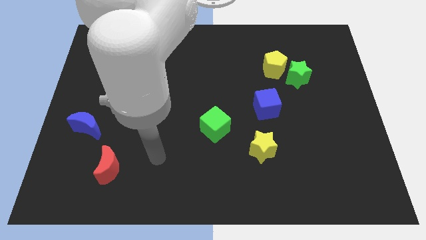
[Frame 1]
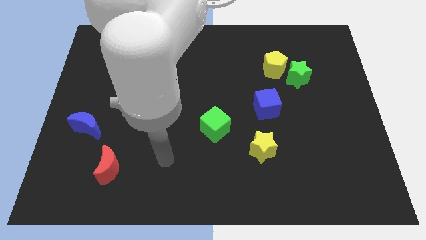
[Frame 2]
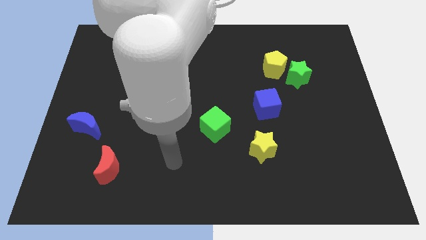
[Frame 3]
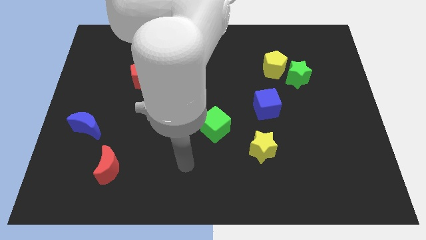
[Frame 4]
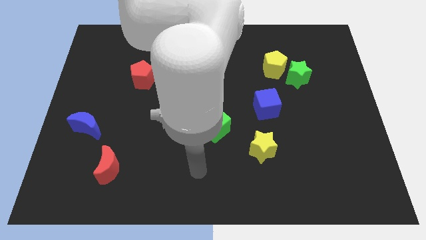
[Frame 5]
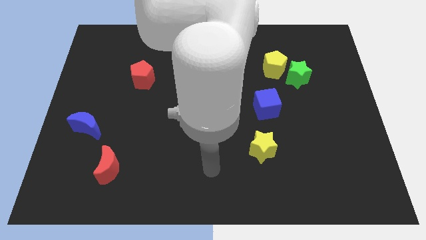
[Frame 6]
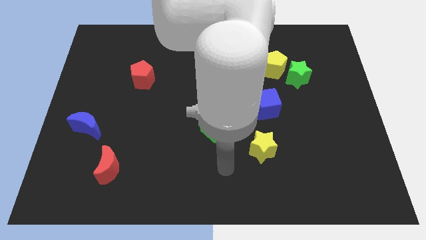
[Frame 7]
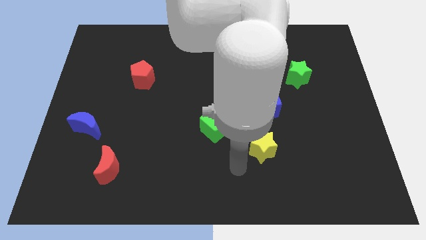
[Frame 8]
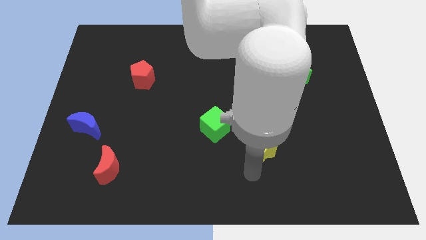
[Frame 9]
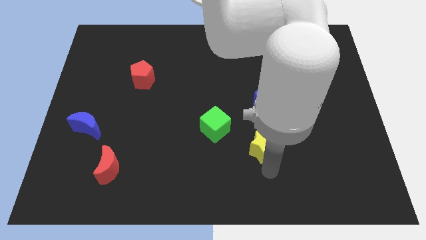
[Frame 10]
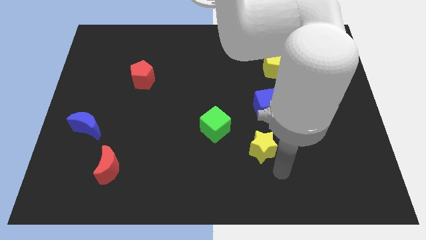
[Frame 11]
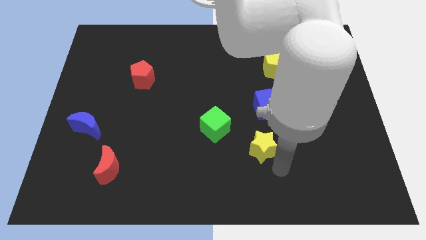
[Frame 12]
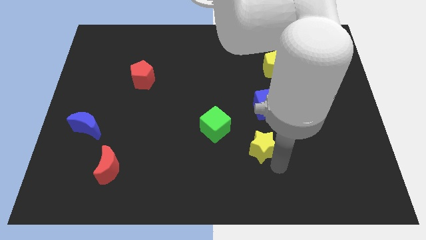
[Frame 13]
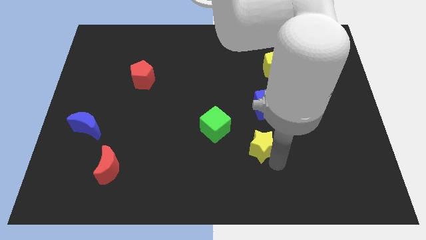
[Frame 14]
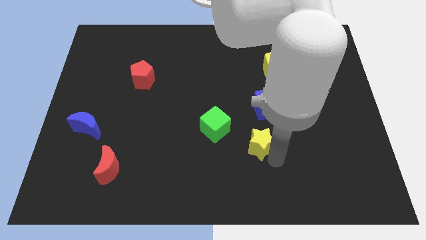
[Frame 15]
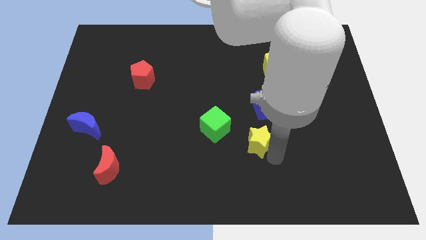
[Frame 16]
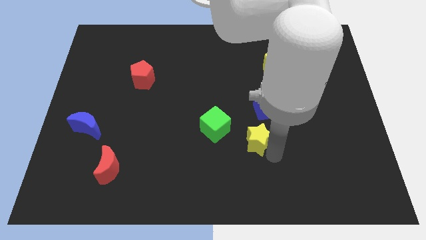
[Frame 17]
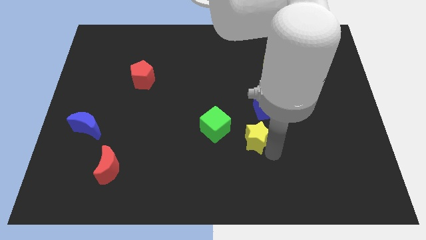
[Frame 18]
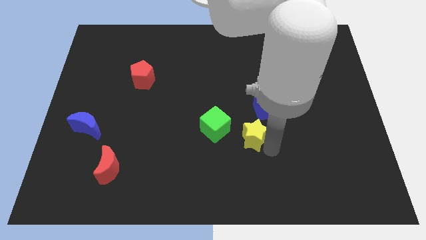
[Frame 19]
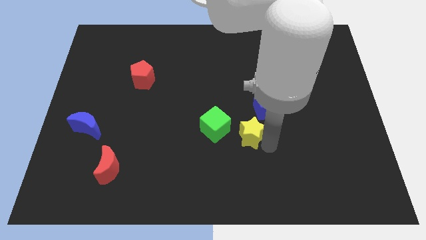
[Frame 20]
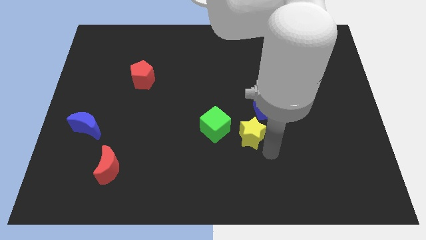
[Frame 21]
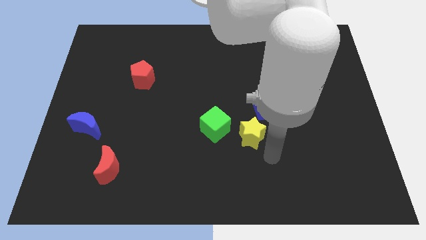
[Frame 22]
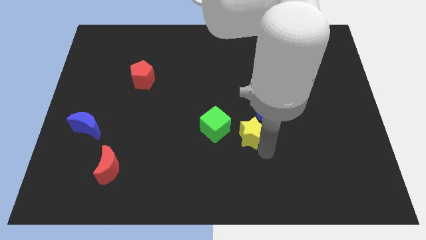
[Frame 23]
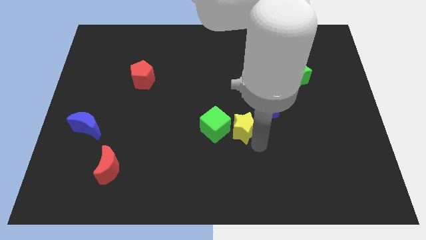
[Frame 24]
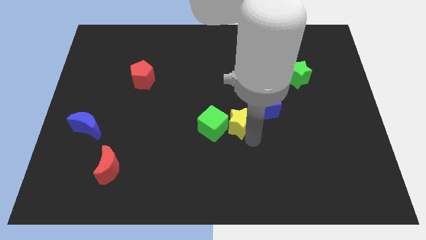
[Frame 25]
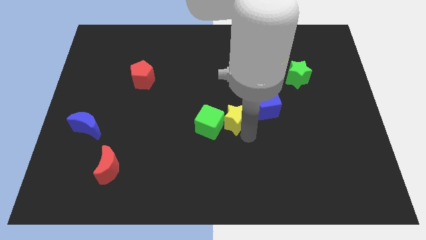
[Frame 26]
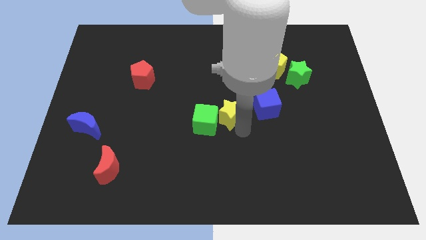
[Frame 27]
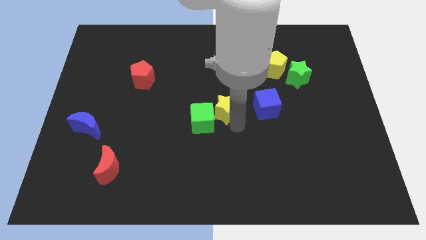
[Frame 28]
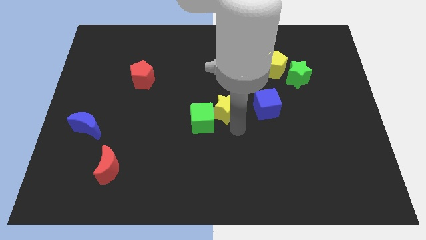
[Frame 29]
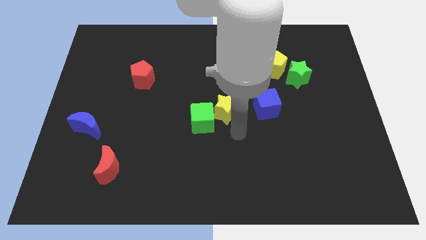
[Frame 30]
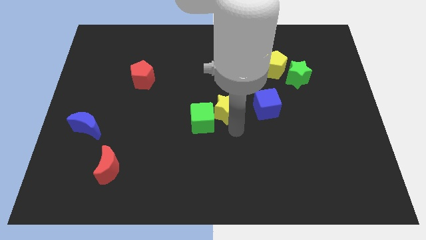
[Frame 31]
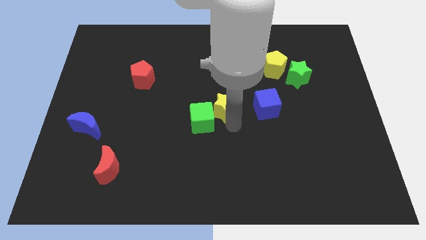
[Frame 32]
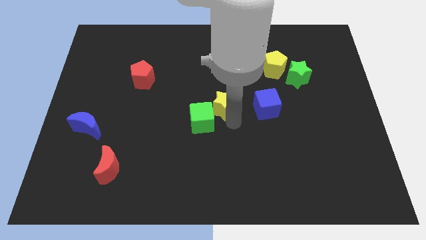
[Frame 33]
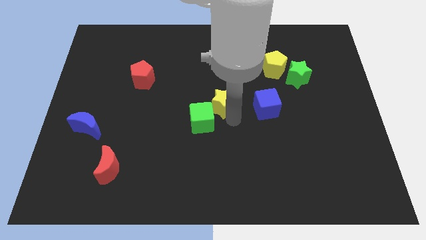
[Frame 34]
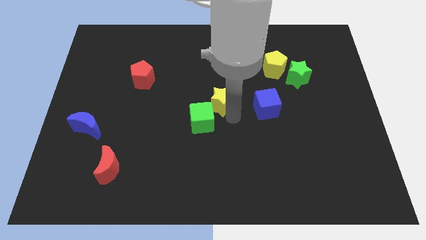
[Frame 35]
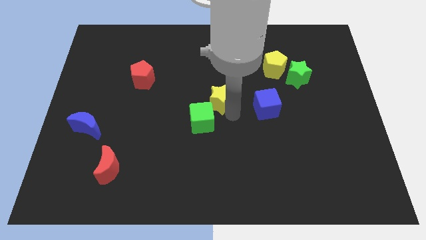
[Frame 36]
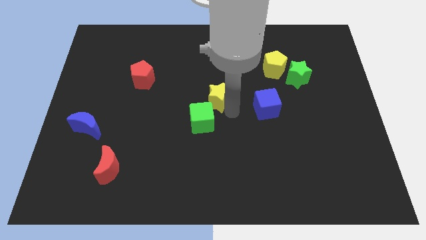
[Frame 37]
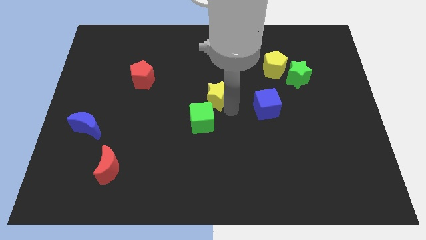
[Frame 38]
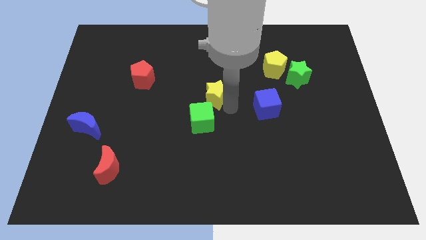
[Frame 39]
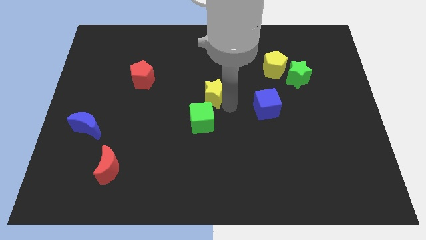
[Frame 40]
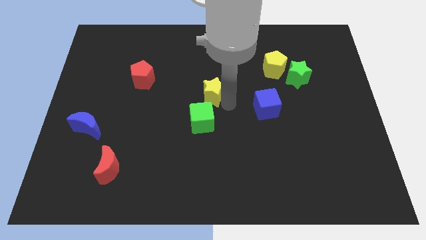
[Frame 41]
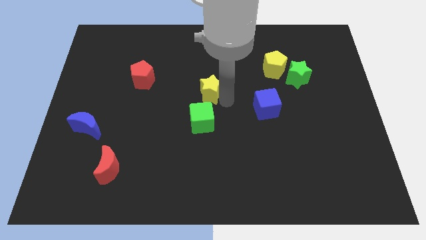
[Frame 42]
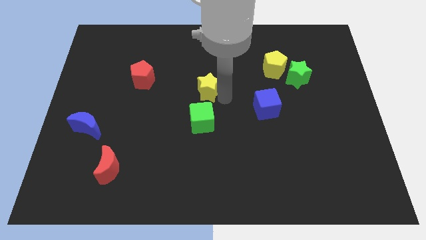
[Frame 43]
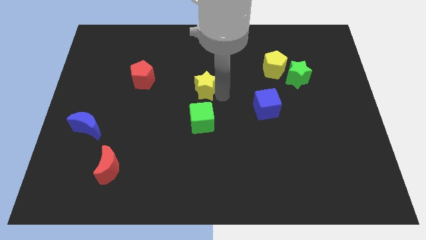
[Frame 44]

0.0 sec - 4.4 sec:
slide the yellow star upwards and then to the left

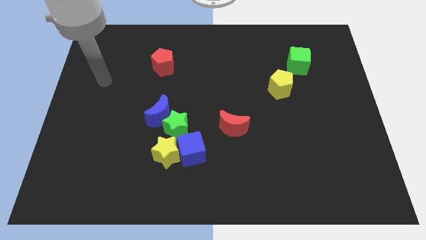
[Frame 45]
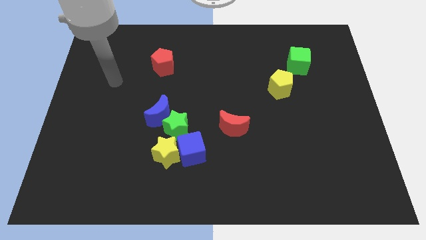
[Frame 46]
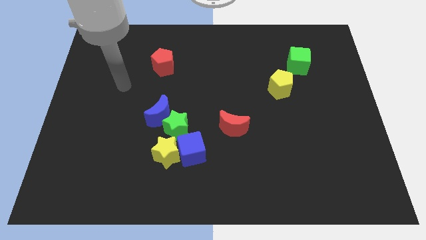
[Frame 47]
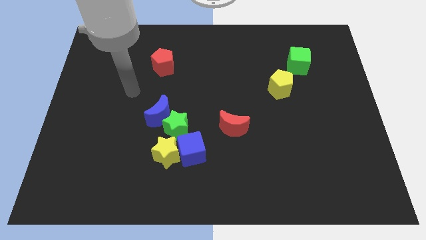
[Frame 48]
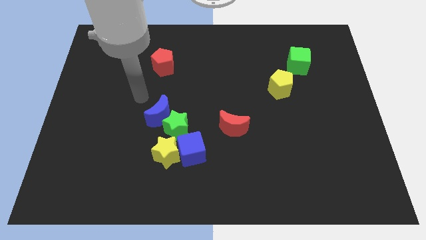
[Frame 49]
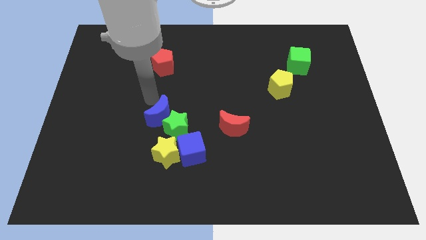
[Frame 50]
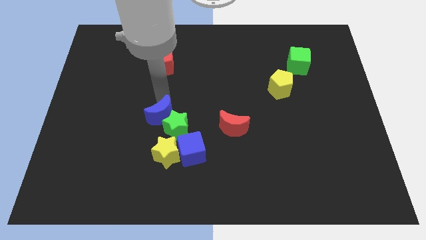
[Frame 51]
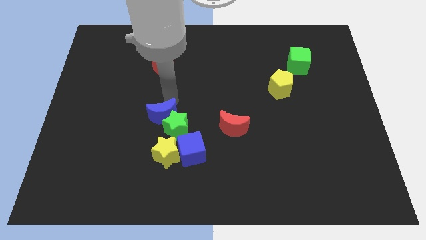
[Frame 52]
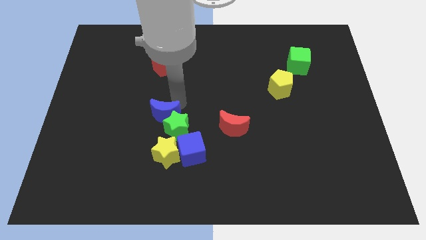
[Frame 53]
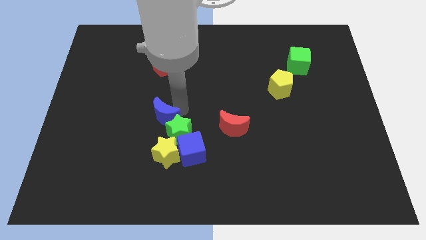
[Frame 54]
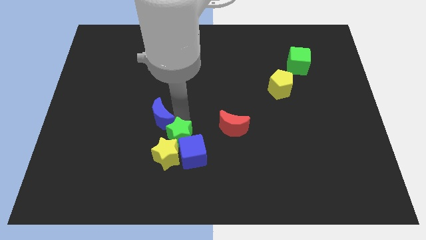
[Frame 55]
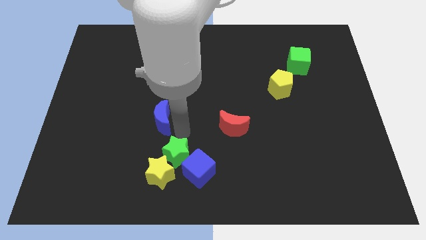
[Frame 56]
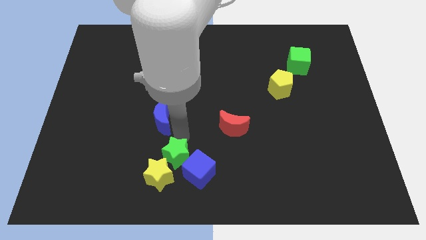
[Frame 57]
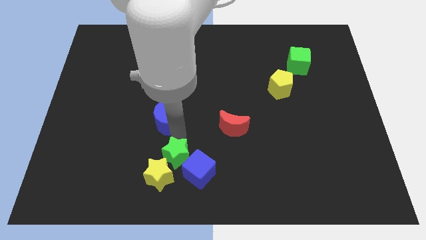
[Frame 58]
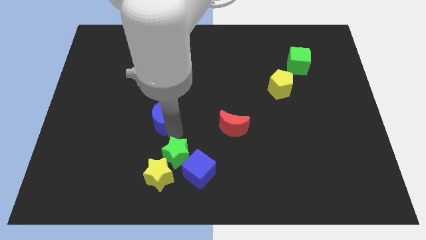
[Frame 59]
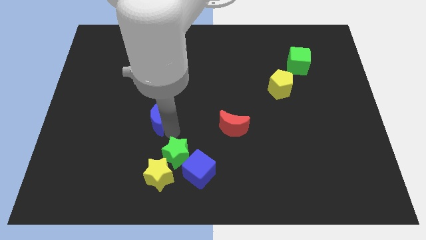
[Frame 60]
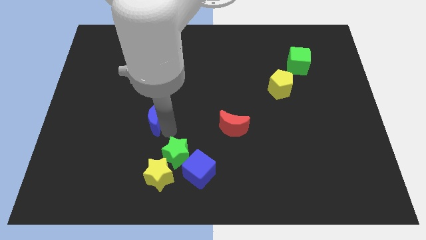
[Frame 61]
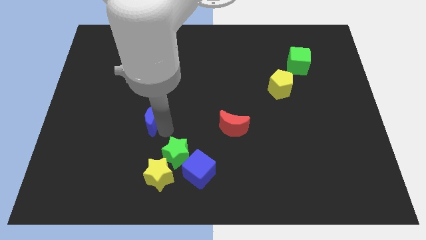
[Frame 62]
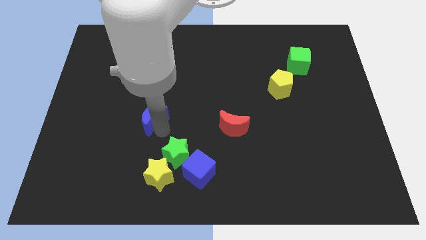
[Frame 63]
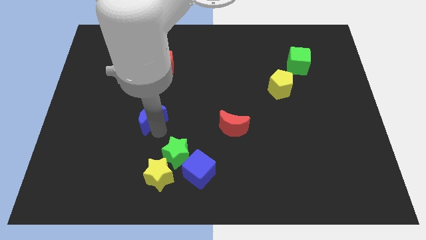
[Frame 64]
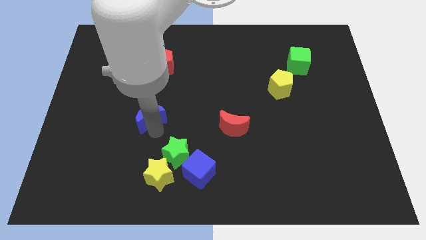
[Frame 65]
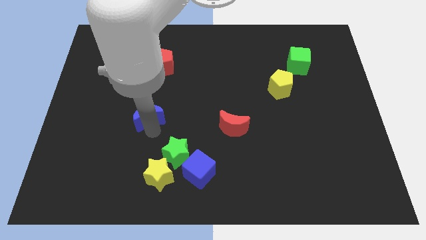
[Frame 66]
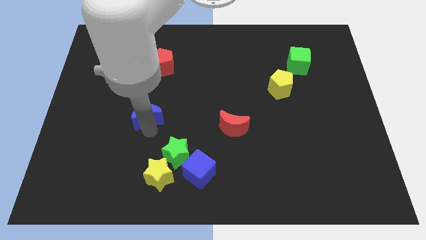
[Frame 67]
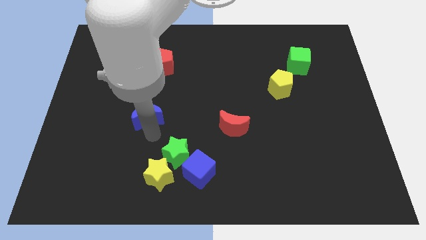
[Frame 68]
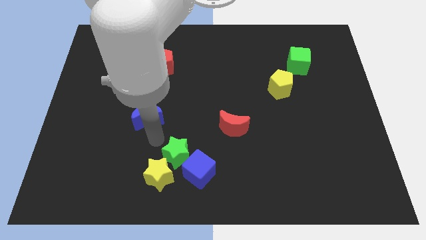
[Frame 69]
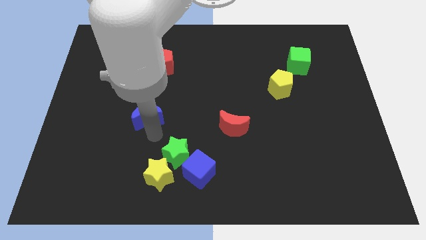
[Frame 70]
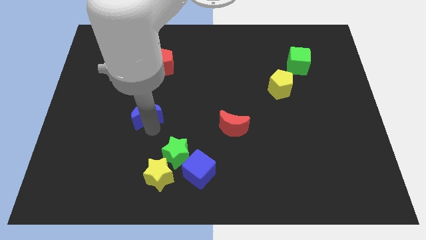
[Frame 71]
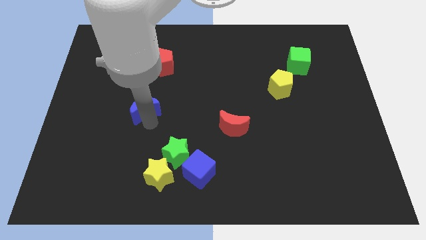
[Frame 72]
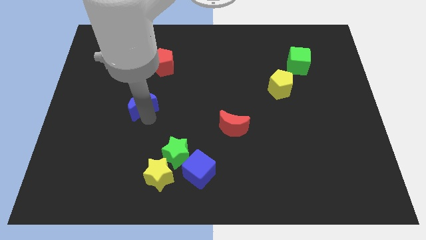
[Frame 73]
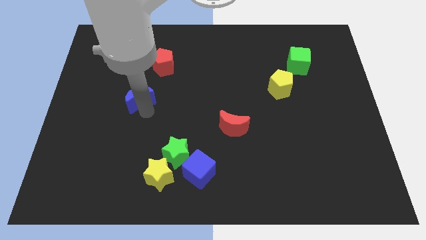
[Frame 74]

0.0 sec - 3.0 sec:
push the blue moon a little up and left diagonally

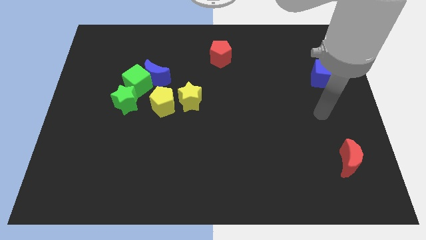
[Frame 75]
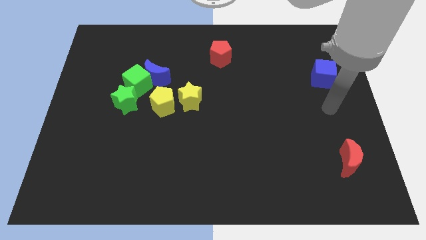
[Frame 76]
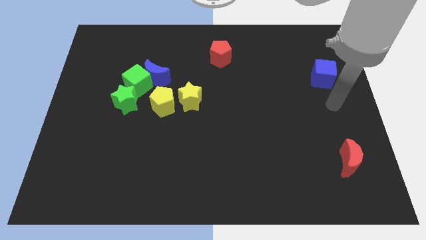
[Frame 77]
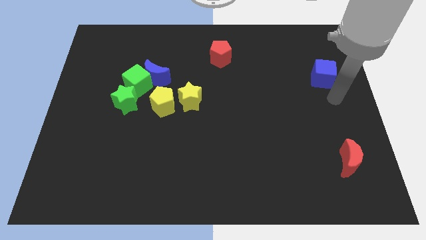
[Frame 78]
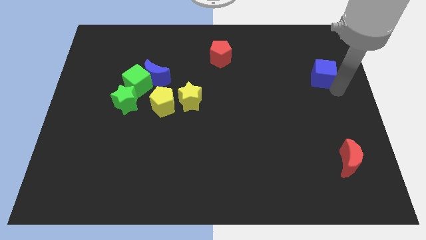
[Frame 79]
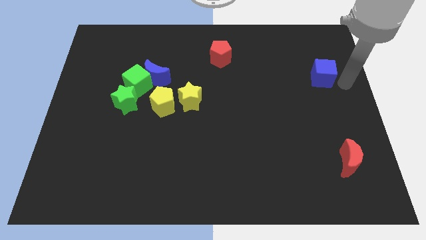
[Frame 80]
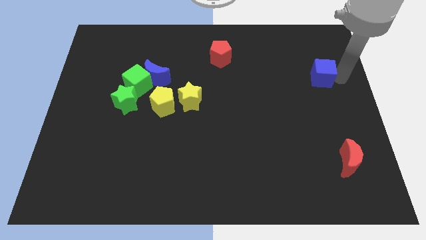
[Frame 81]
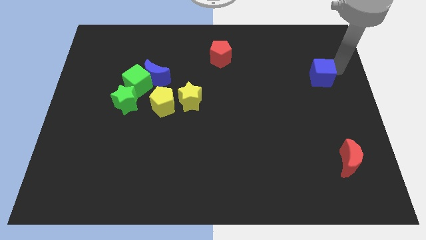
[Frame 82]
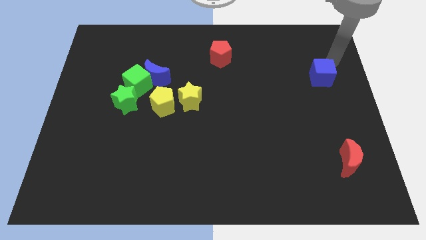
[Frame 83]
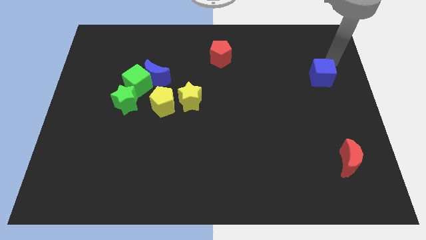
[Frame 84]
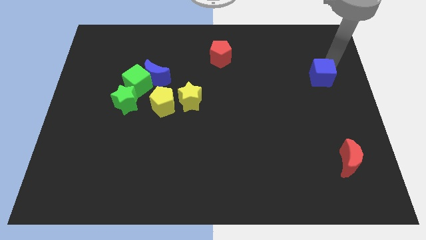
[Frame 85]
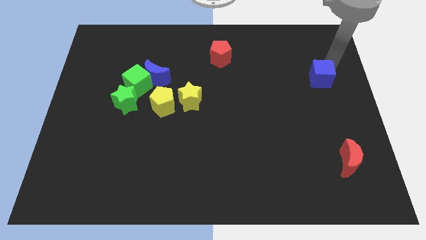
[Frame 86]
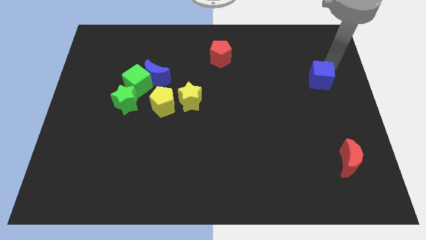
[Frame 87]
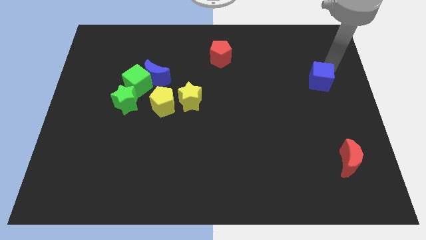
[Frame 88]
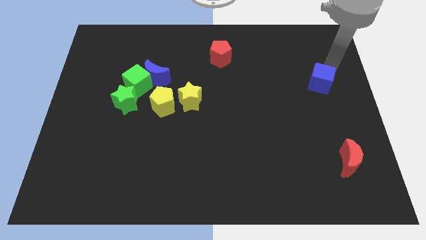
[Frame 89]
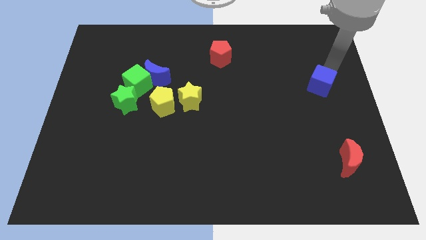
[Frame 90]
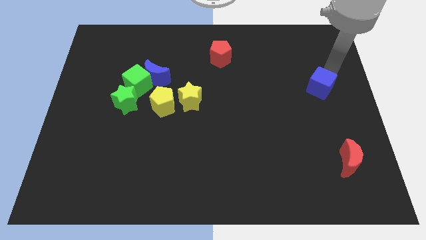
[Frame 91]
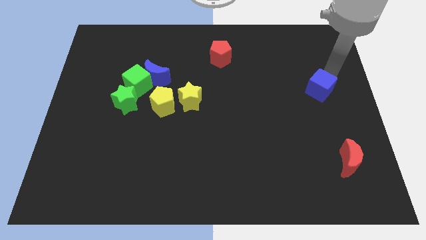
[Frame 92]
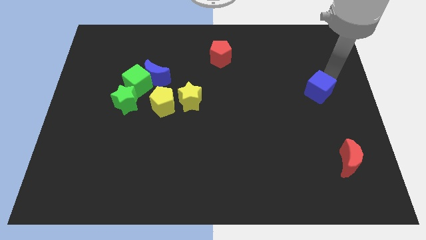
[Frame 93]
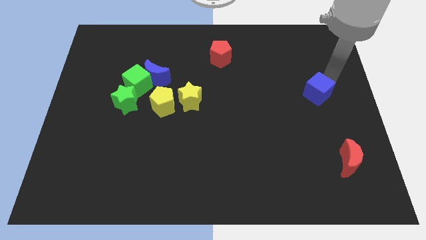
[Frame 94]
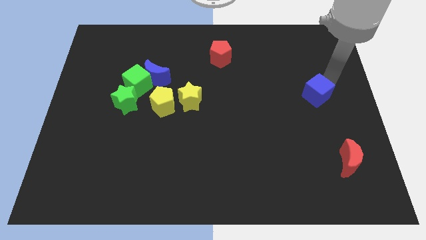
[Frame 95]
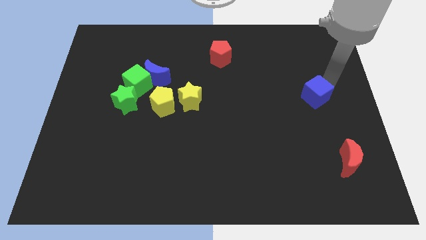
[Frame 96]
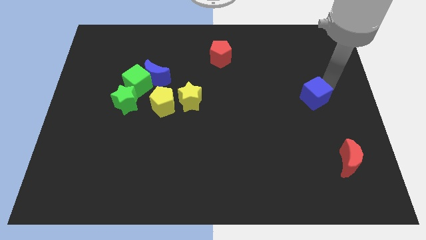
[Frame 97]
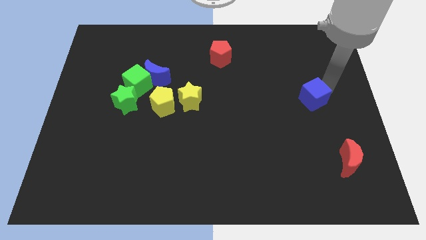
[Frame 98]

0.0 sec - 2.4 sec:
slide the blue cube a bit down and then left
